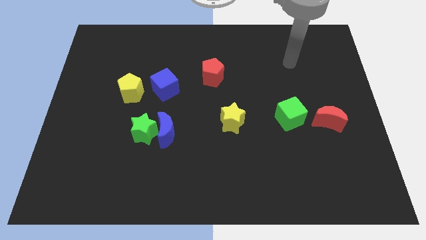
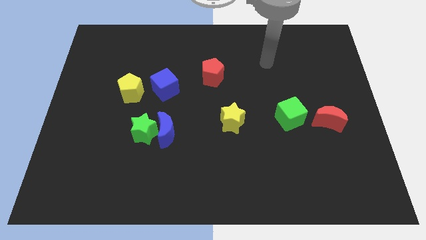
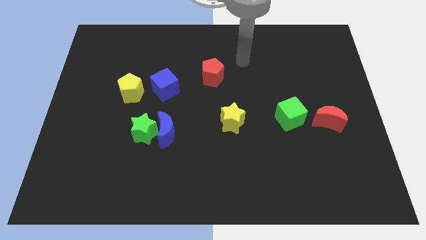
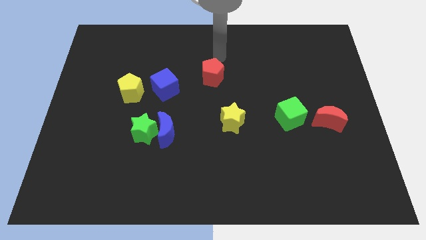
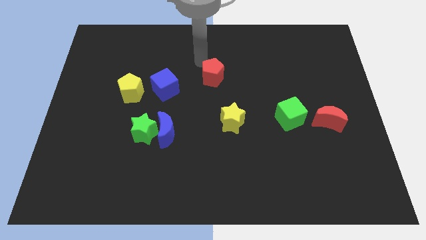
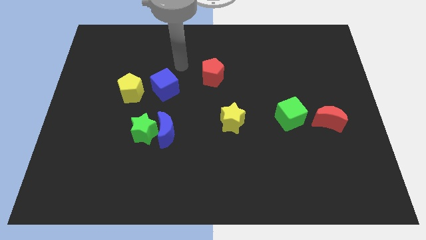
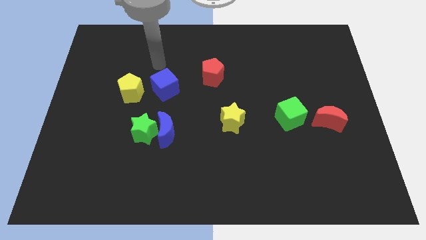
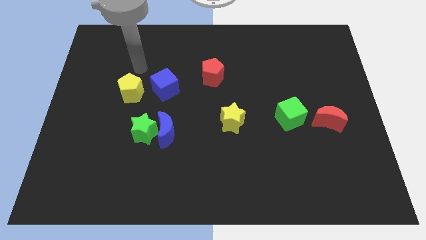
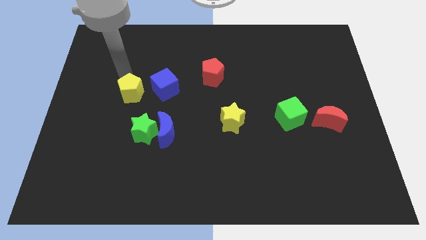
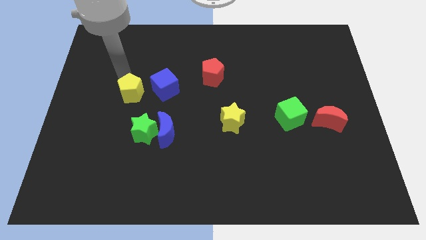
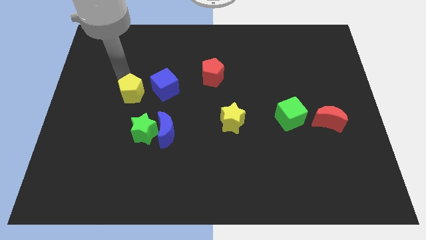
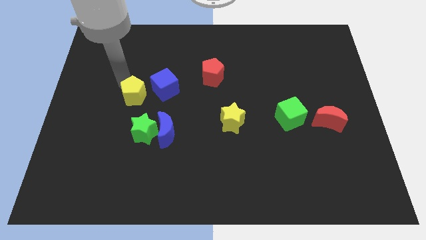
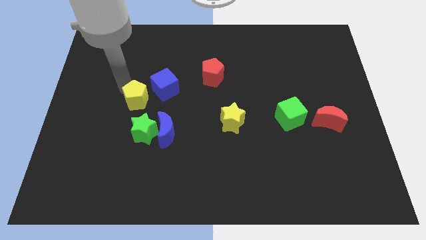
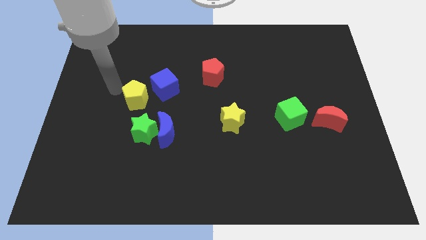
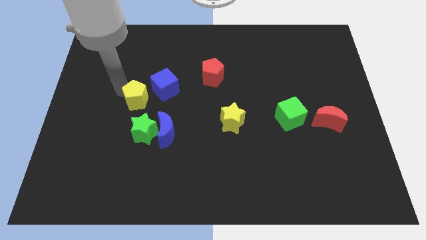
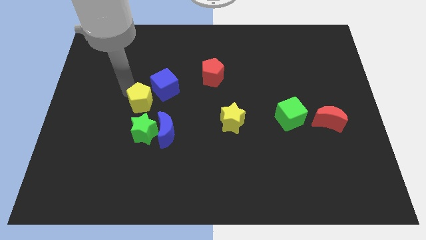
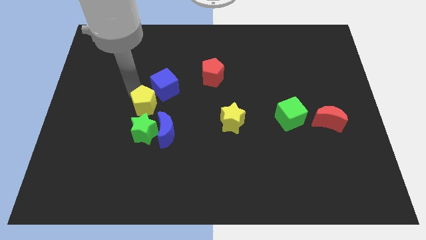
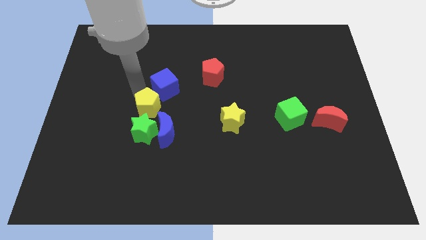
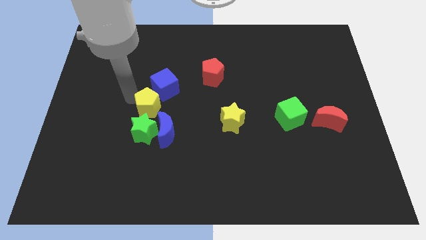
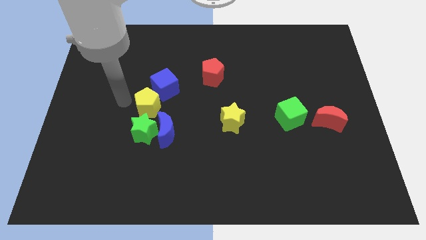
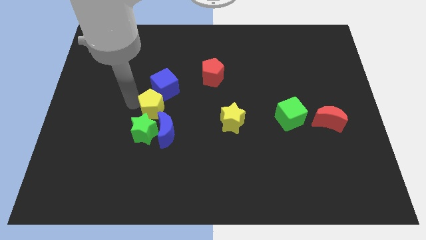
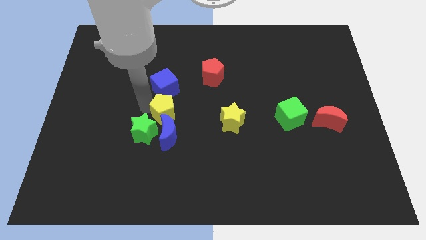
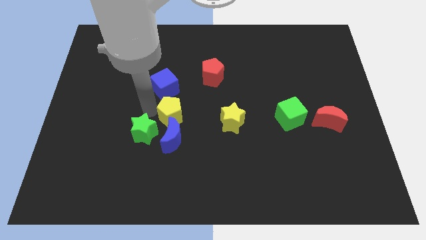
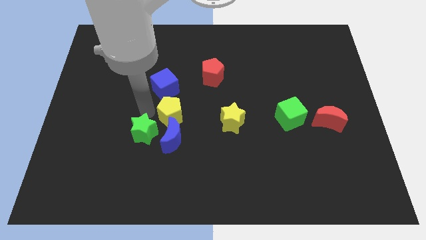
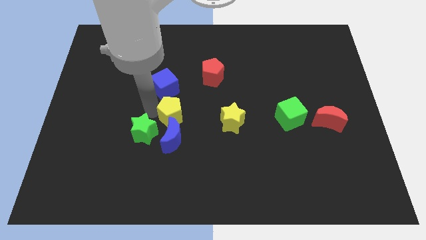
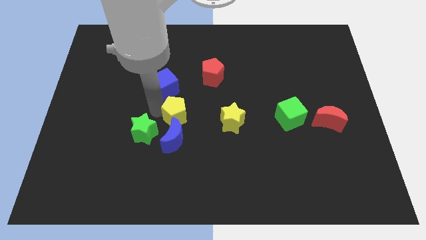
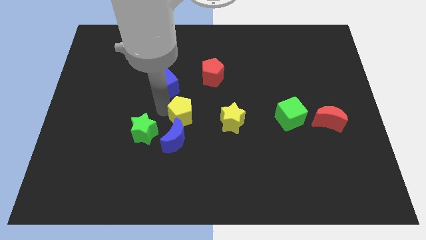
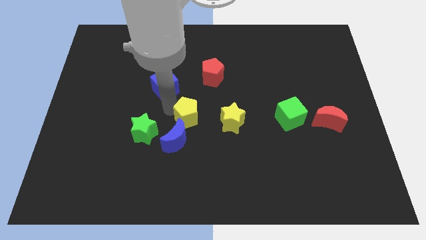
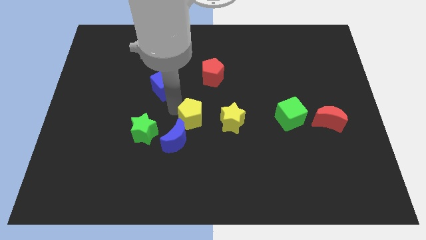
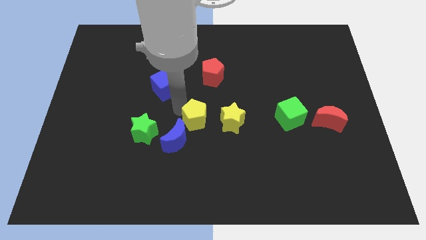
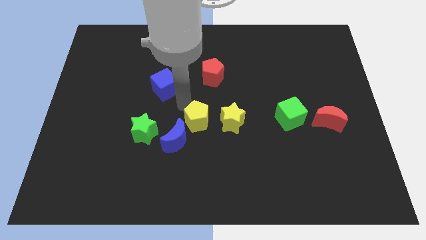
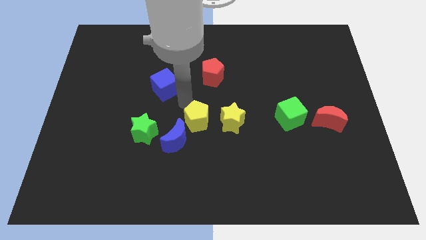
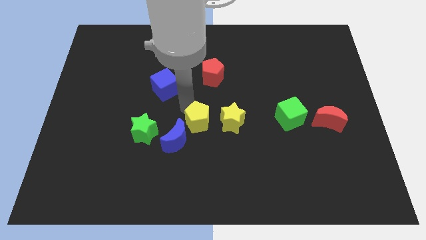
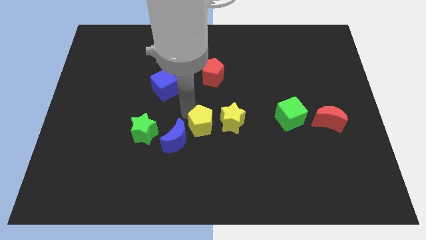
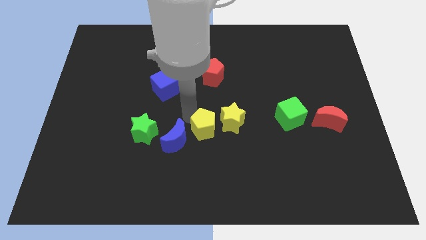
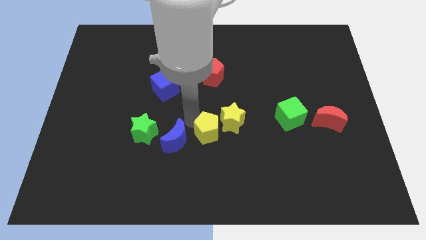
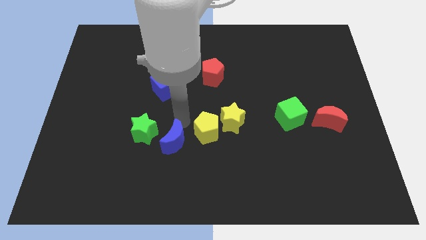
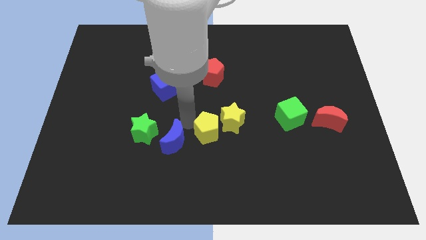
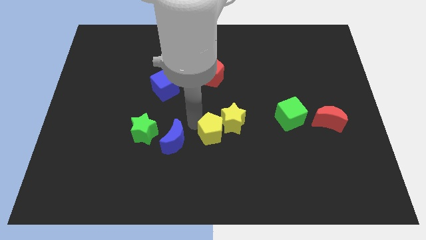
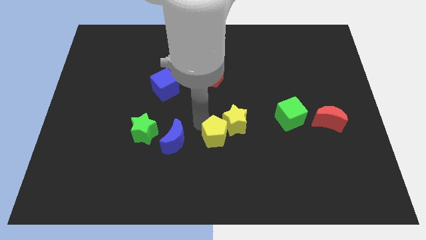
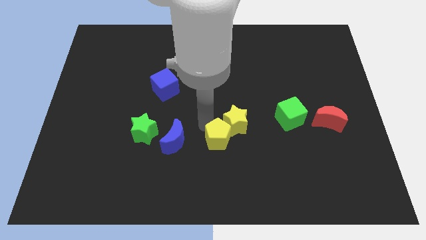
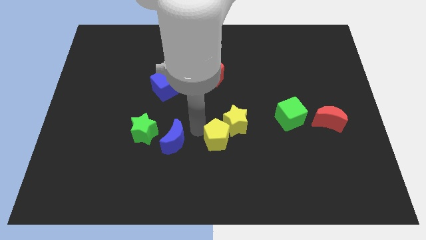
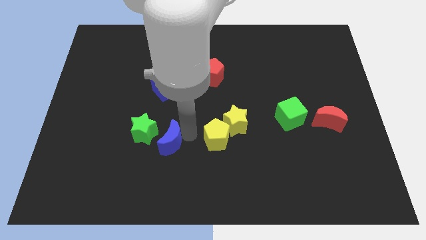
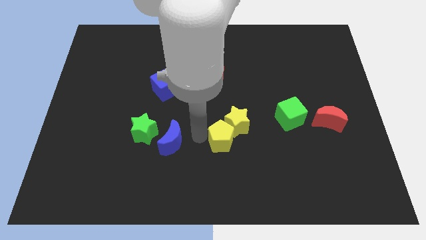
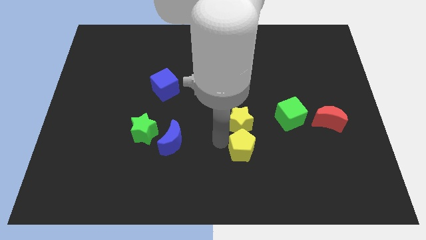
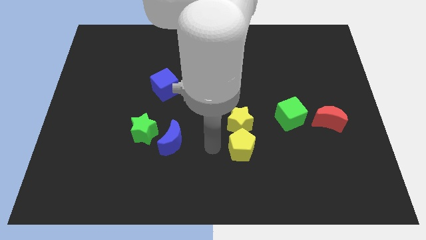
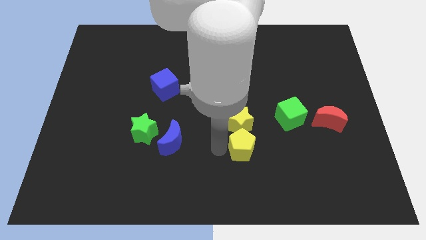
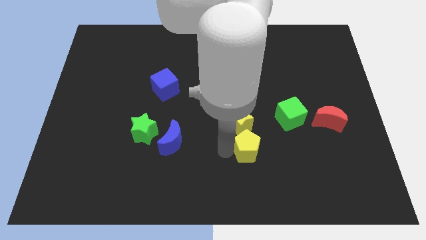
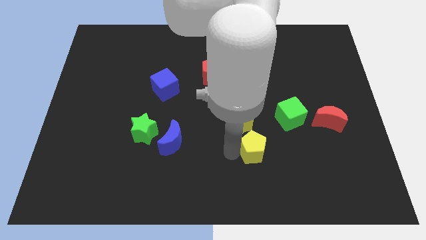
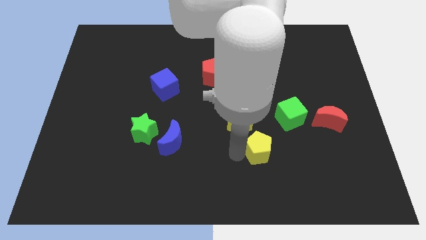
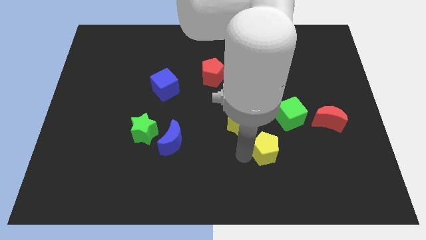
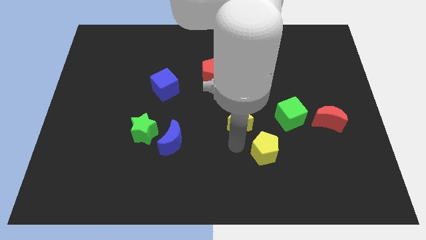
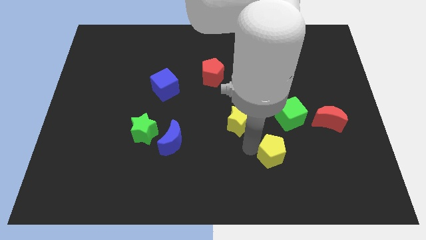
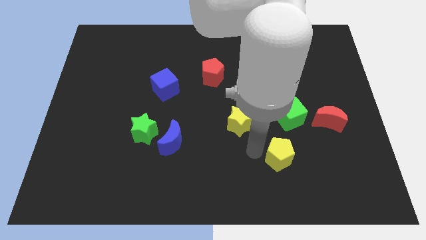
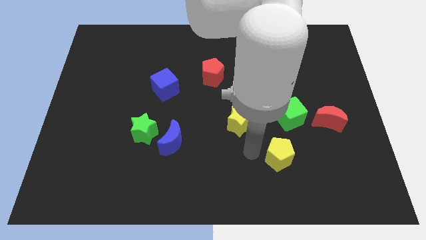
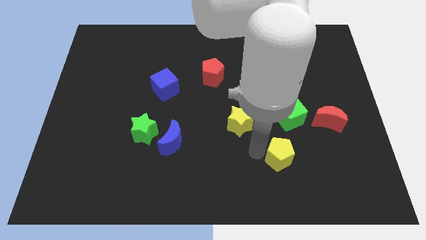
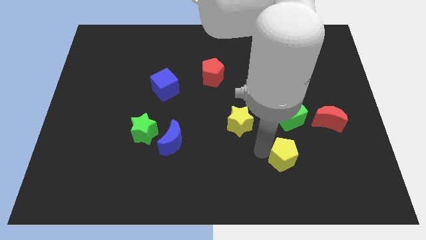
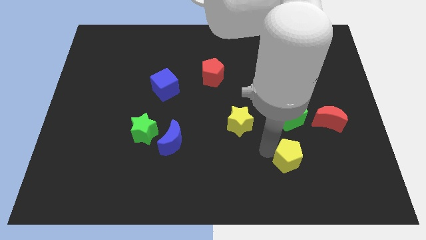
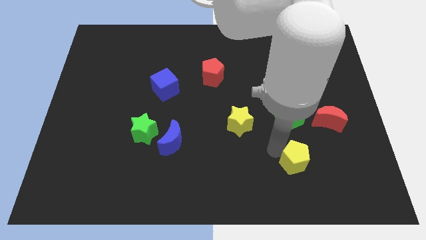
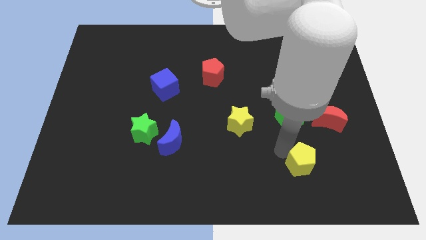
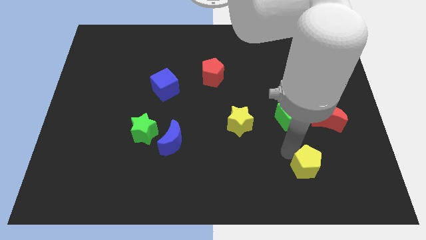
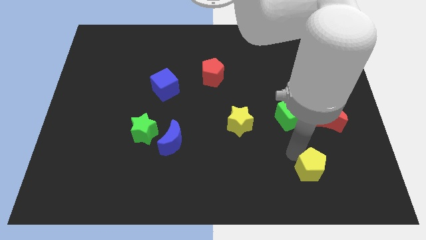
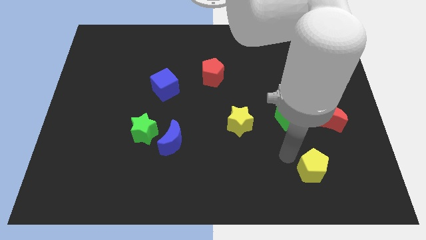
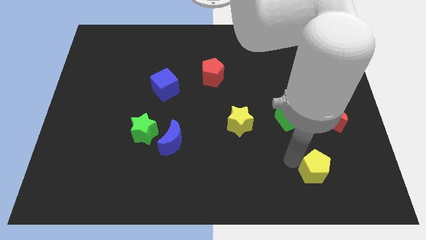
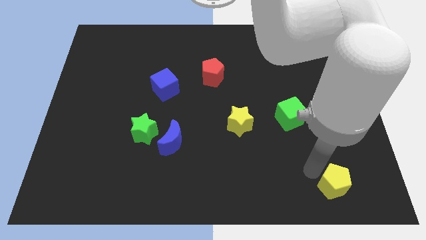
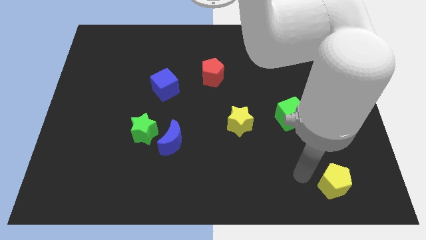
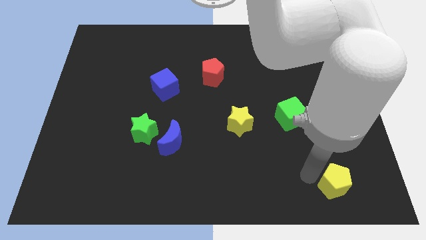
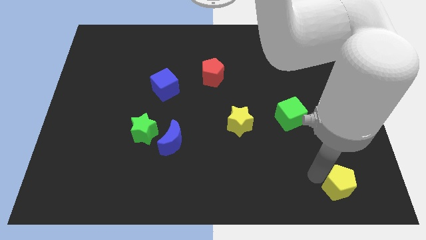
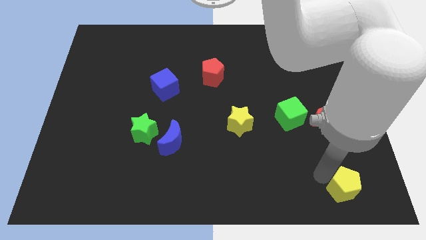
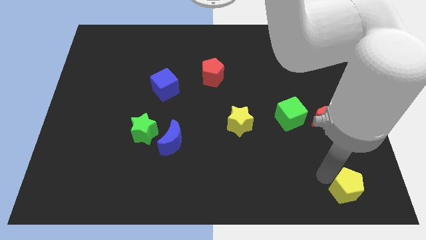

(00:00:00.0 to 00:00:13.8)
slide the yellow pentagon to the bottom right corner

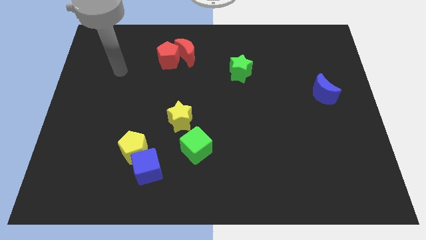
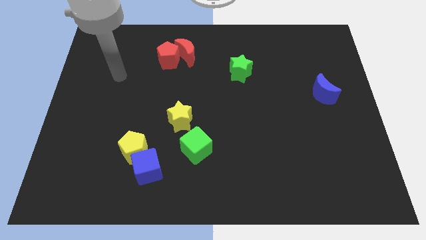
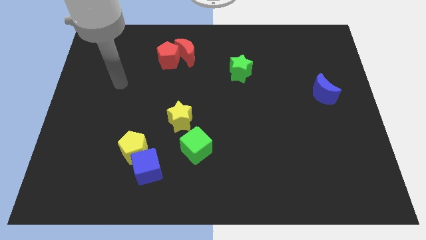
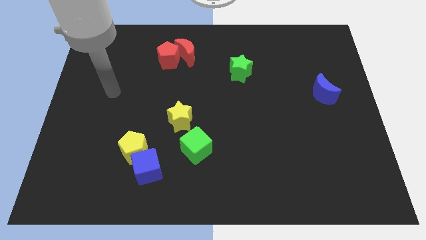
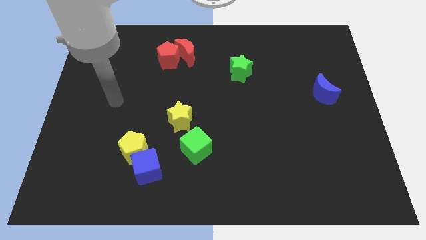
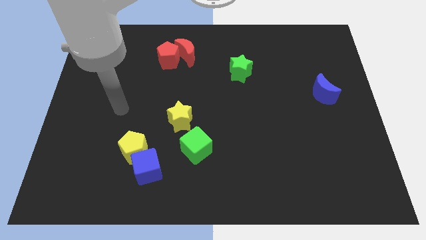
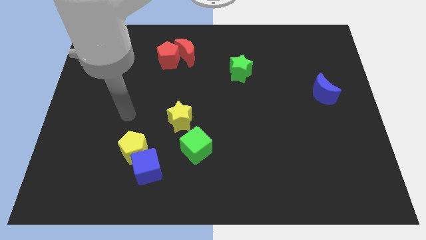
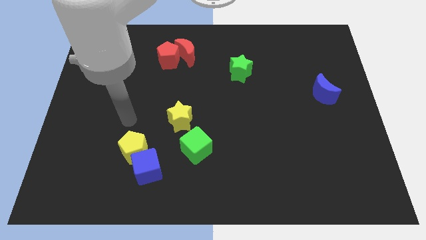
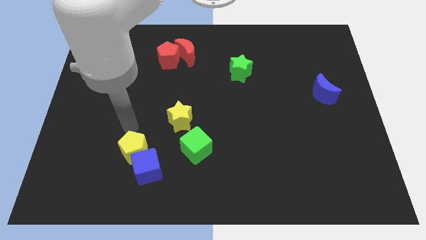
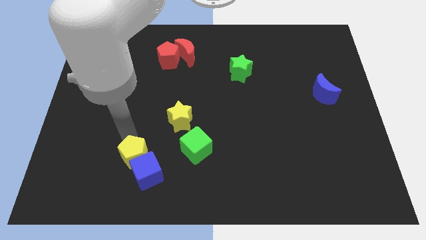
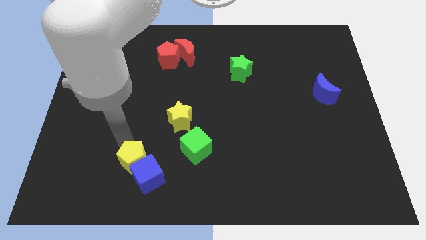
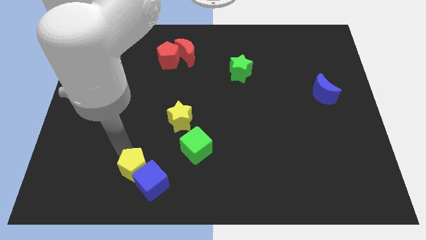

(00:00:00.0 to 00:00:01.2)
put the blue cube to the bottom
